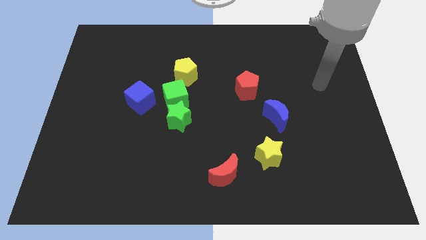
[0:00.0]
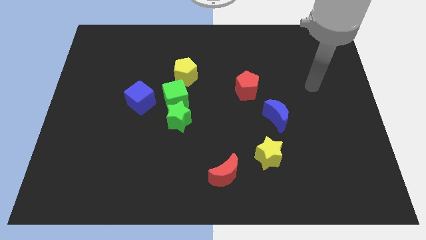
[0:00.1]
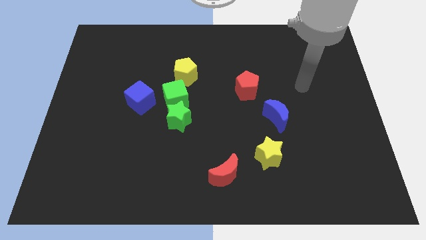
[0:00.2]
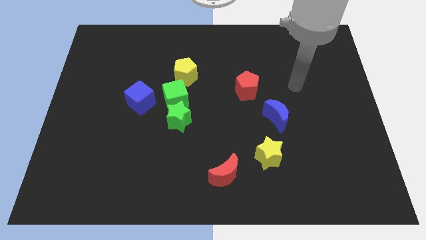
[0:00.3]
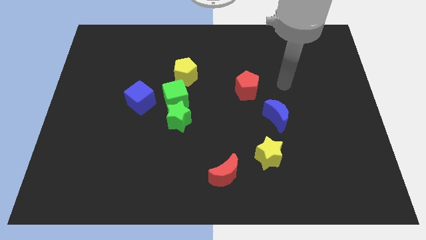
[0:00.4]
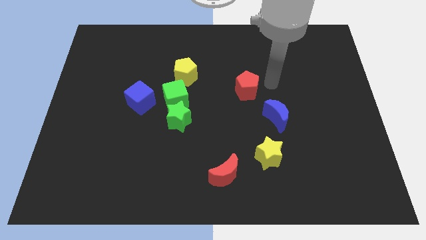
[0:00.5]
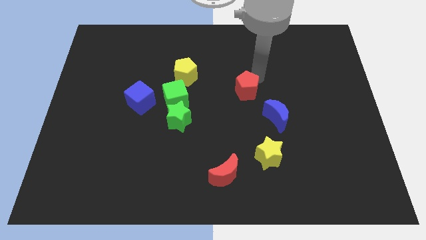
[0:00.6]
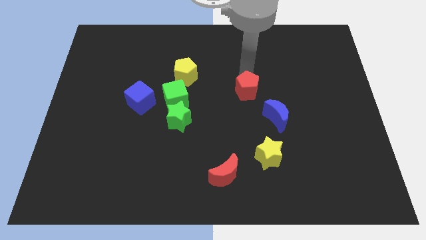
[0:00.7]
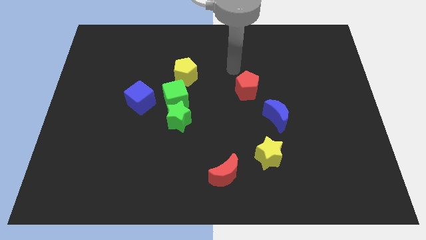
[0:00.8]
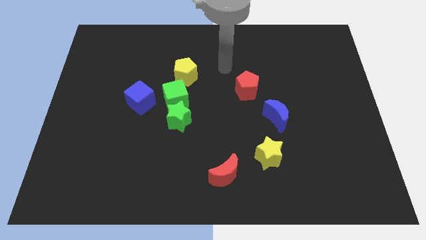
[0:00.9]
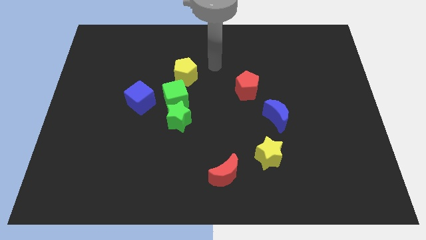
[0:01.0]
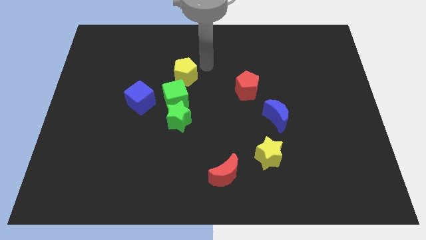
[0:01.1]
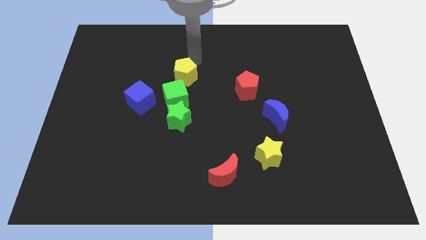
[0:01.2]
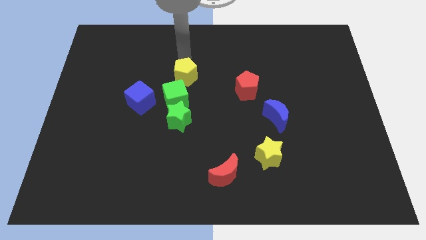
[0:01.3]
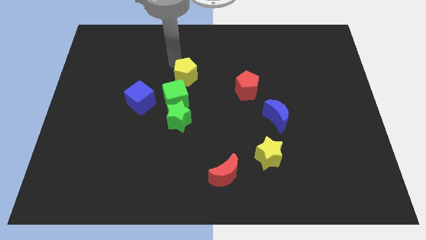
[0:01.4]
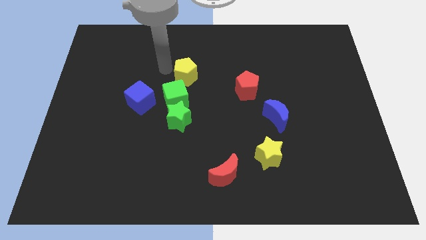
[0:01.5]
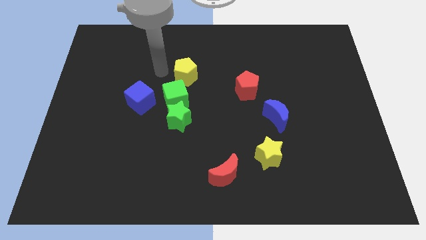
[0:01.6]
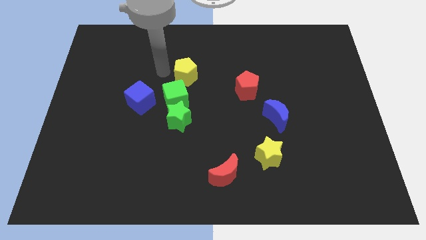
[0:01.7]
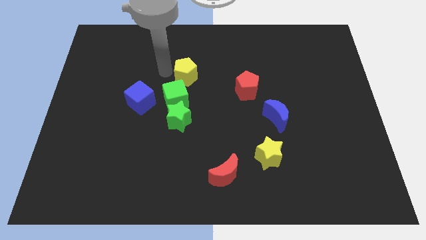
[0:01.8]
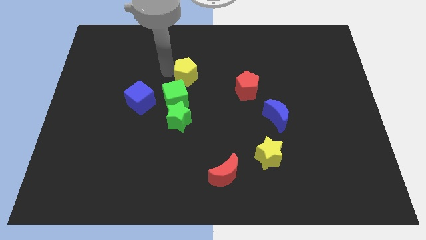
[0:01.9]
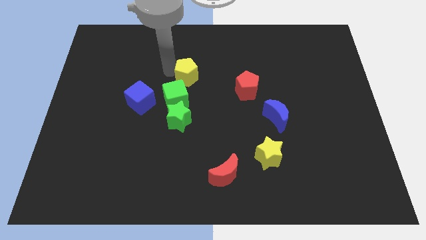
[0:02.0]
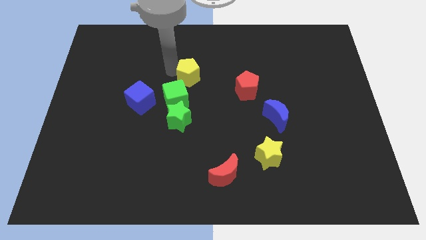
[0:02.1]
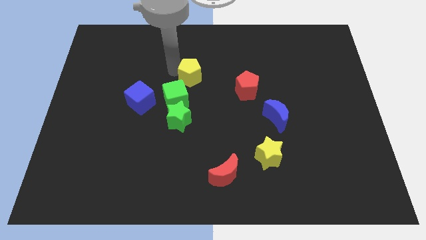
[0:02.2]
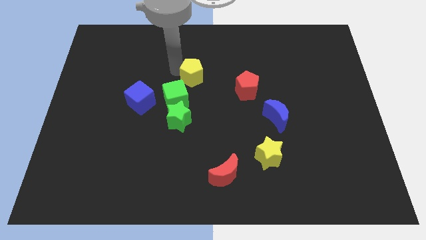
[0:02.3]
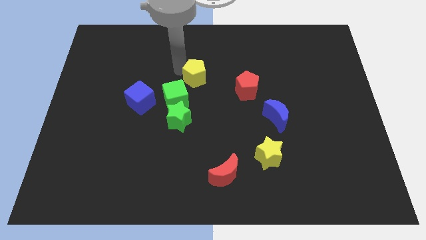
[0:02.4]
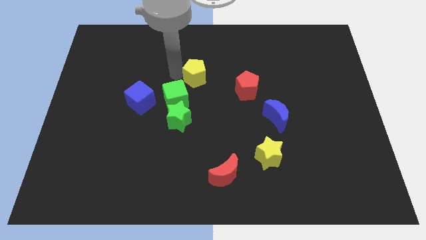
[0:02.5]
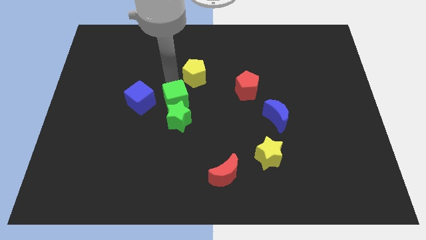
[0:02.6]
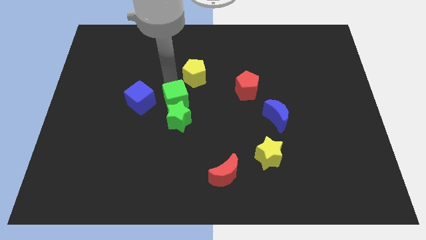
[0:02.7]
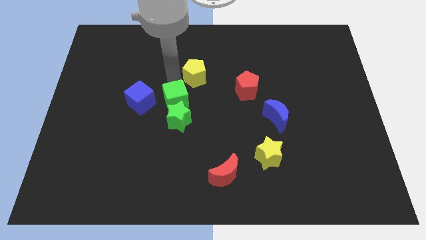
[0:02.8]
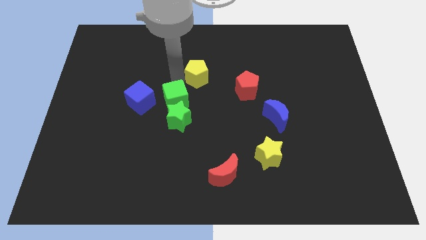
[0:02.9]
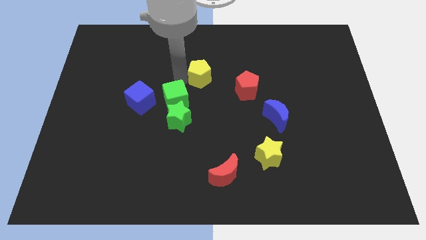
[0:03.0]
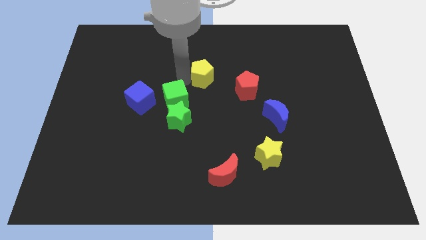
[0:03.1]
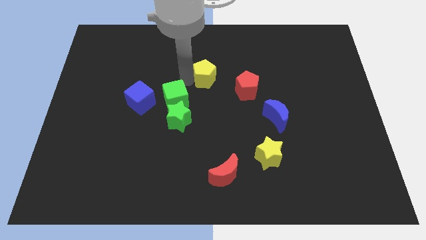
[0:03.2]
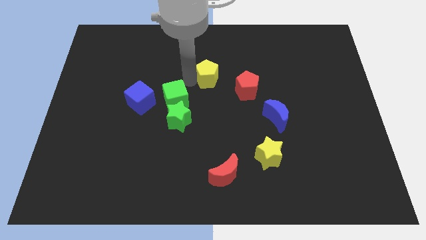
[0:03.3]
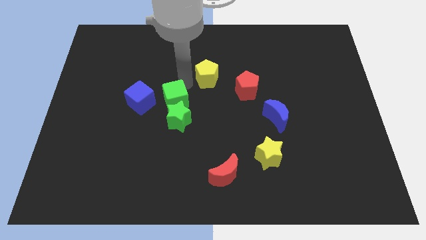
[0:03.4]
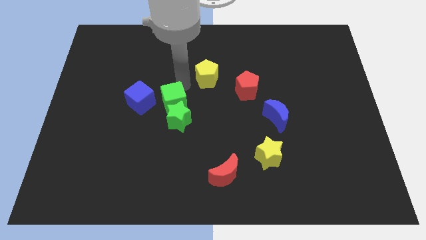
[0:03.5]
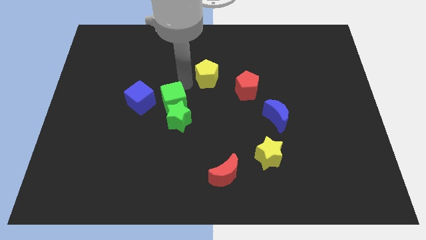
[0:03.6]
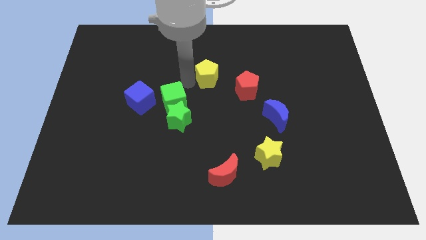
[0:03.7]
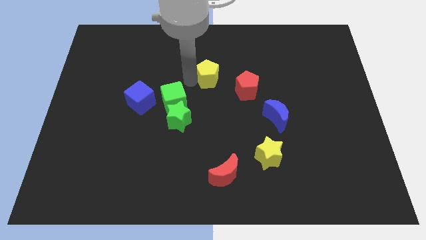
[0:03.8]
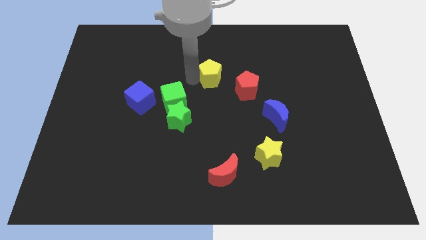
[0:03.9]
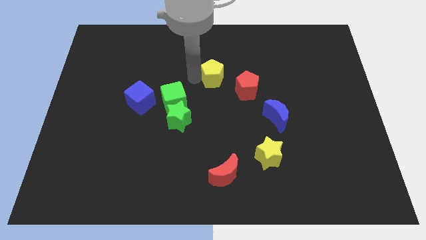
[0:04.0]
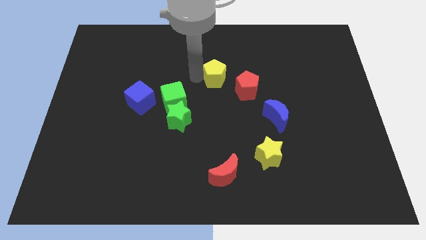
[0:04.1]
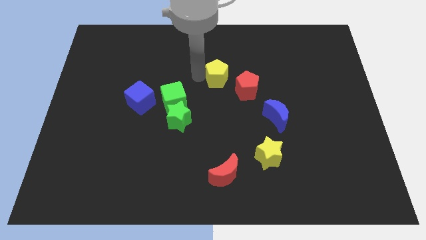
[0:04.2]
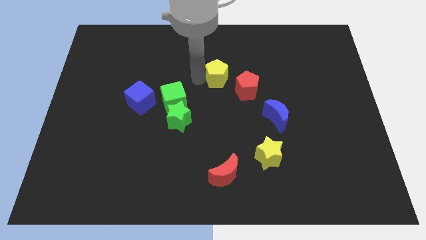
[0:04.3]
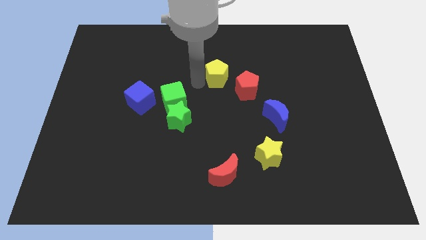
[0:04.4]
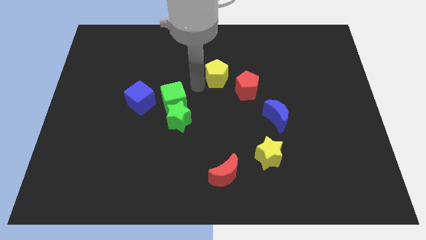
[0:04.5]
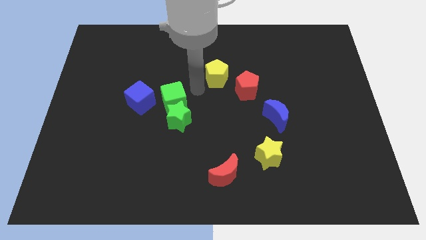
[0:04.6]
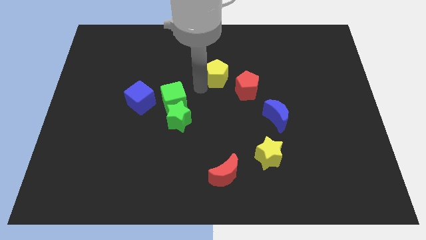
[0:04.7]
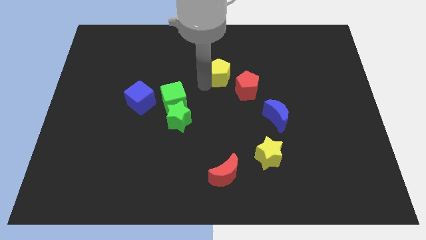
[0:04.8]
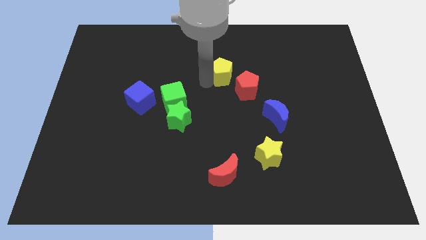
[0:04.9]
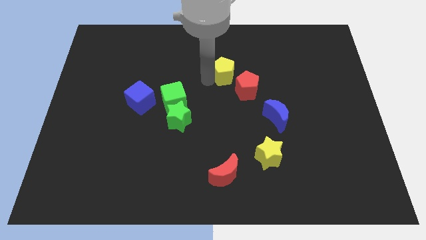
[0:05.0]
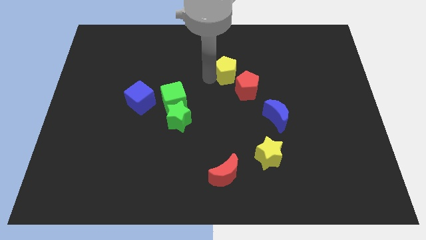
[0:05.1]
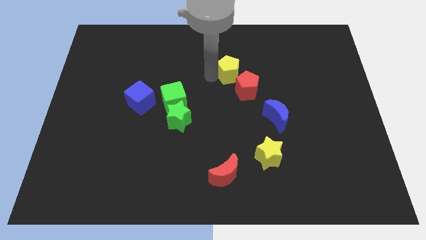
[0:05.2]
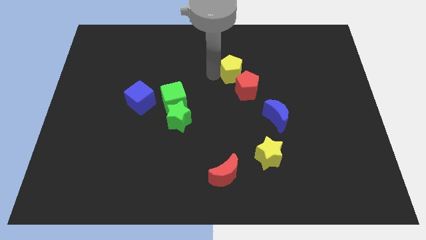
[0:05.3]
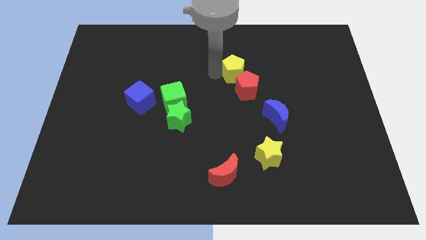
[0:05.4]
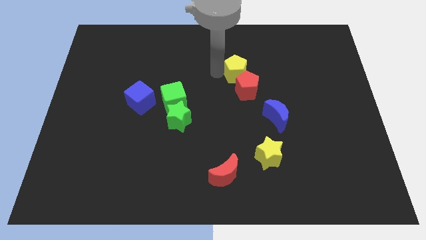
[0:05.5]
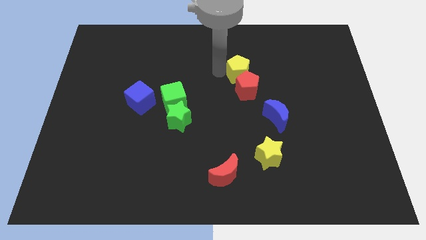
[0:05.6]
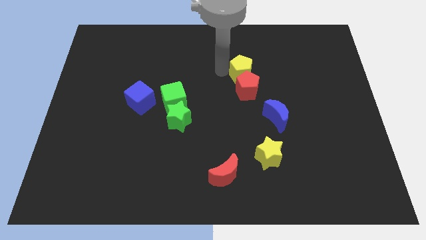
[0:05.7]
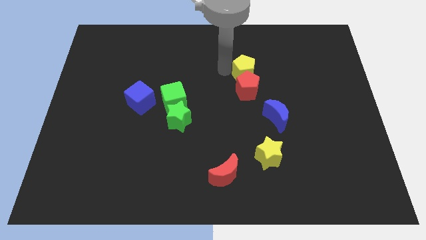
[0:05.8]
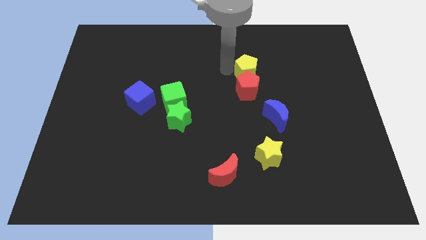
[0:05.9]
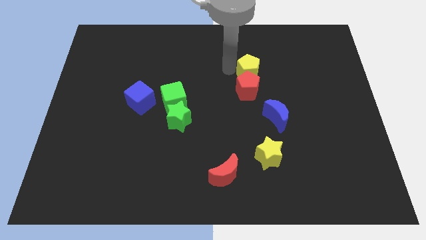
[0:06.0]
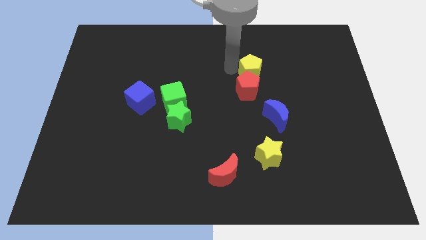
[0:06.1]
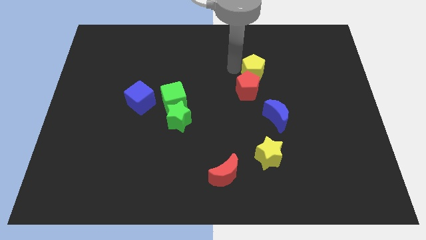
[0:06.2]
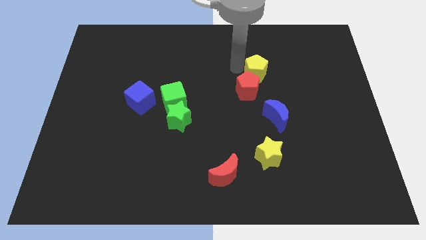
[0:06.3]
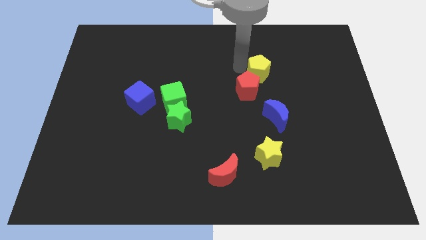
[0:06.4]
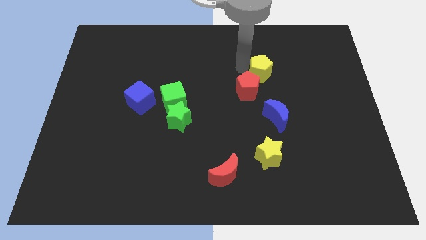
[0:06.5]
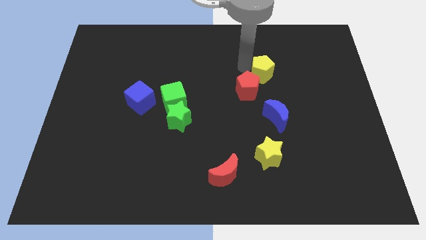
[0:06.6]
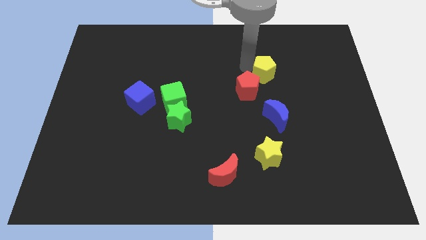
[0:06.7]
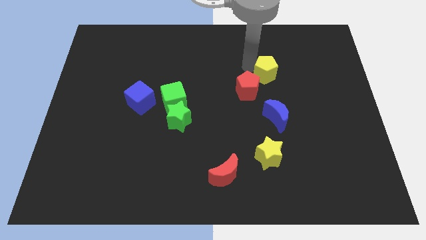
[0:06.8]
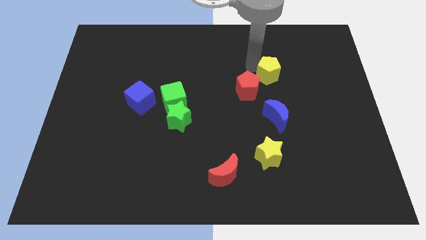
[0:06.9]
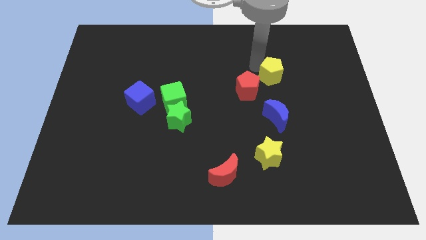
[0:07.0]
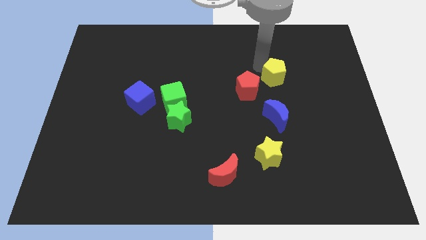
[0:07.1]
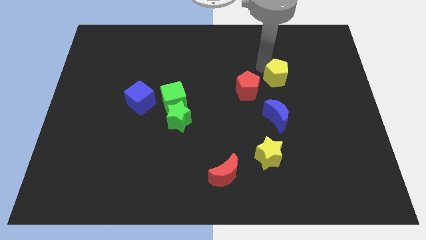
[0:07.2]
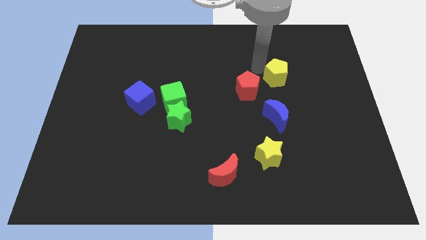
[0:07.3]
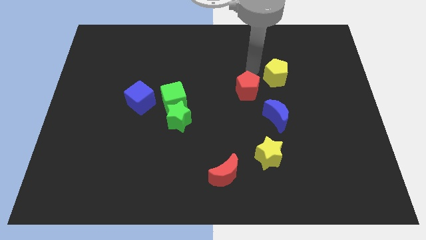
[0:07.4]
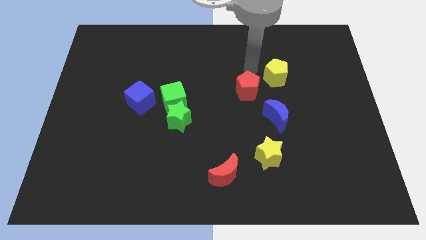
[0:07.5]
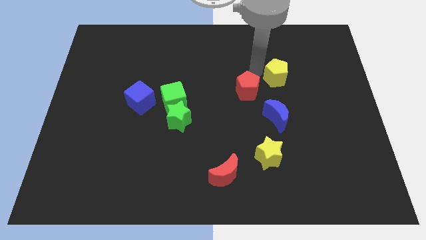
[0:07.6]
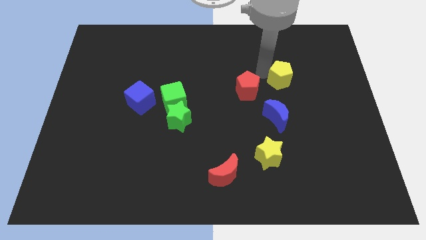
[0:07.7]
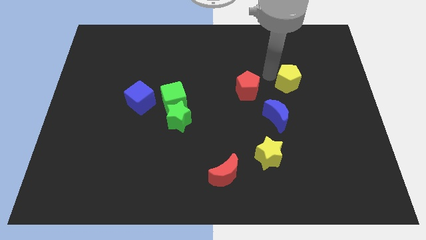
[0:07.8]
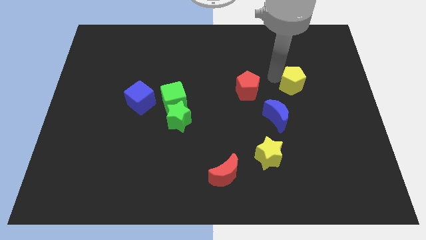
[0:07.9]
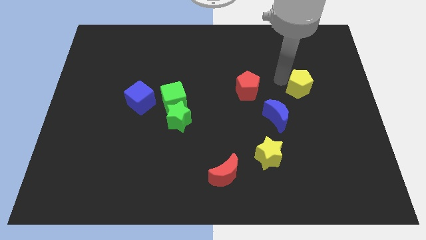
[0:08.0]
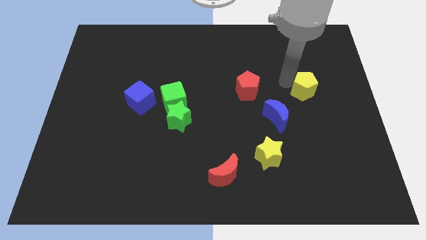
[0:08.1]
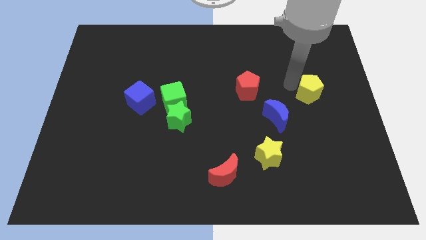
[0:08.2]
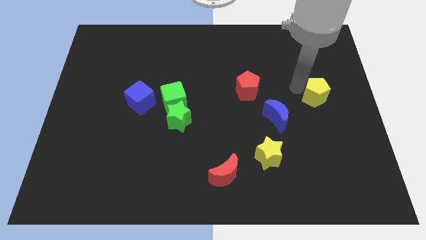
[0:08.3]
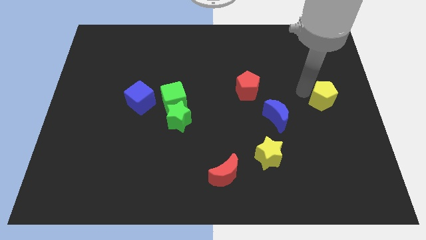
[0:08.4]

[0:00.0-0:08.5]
slide the yellow pentagon to the center right
